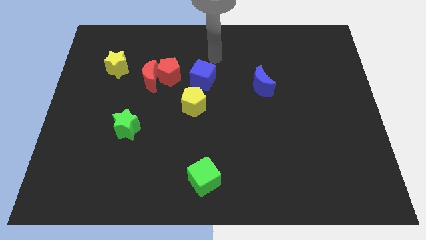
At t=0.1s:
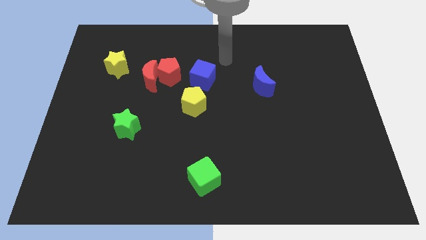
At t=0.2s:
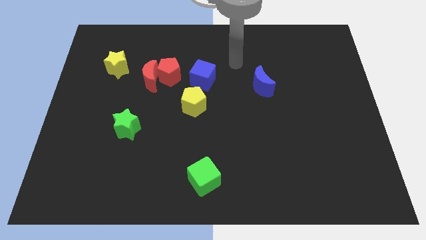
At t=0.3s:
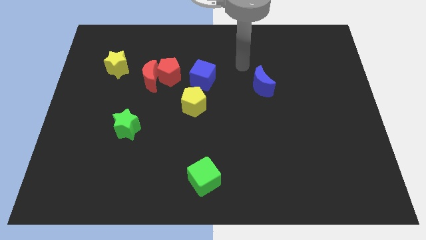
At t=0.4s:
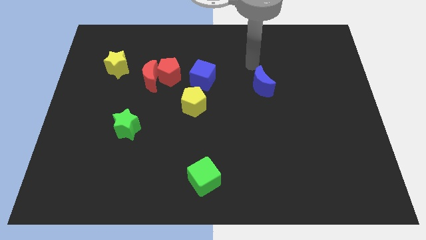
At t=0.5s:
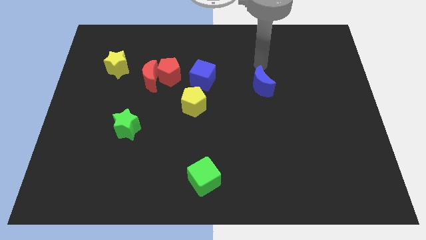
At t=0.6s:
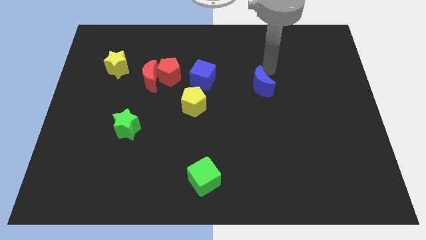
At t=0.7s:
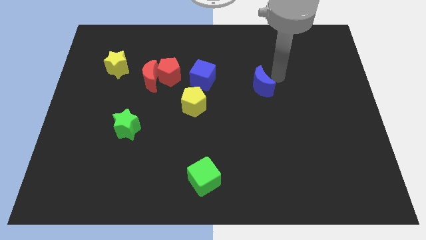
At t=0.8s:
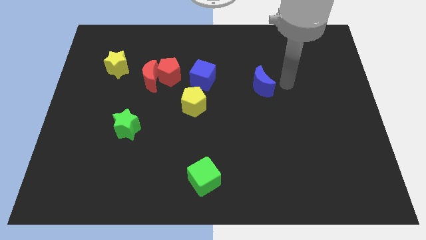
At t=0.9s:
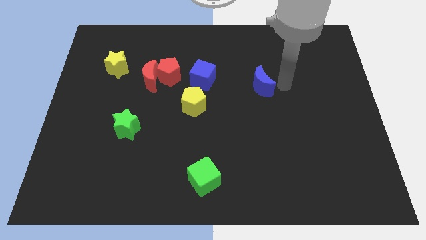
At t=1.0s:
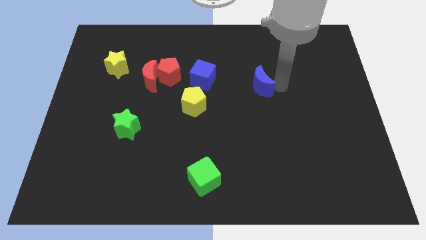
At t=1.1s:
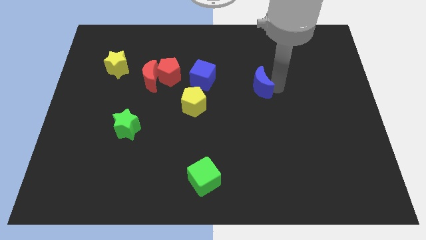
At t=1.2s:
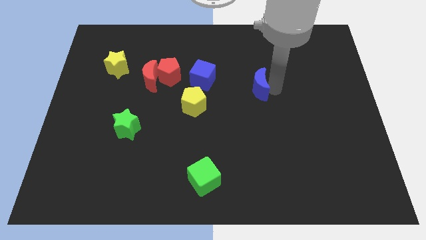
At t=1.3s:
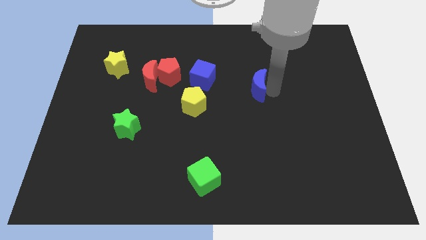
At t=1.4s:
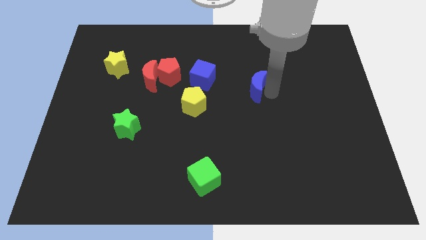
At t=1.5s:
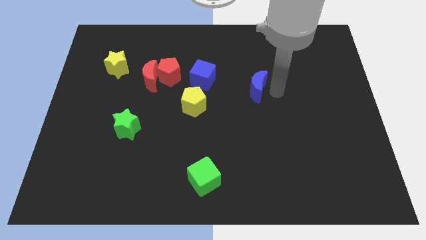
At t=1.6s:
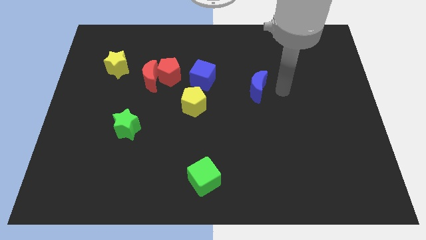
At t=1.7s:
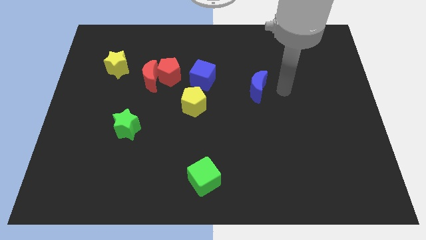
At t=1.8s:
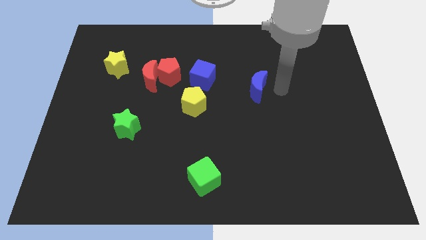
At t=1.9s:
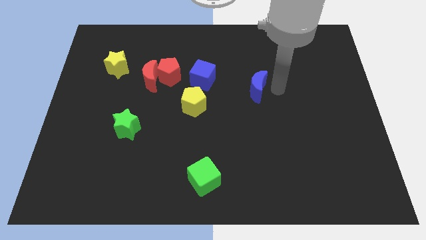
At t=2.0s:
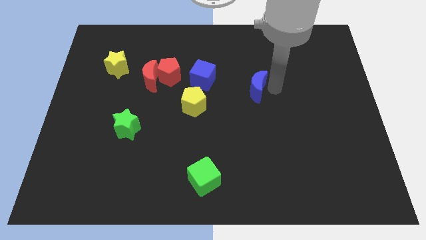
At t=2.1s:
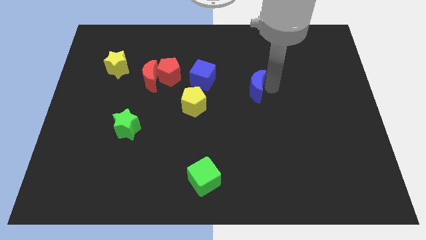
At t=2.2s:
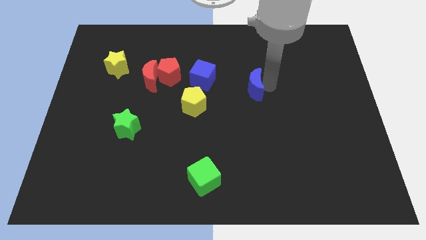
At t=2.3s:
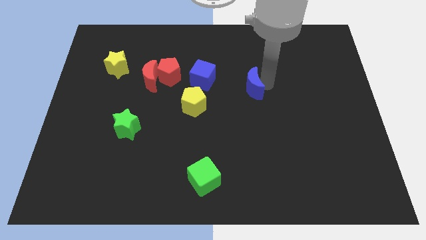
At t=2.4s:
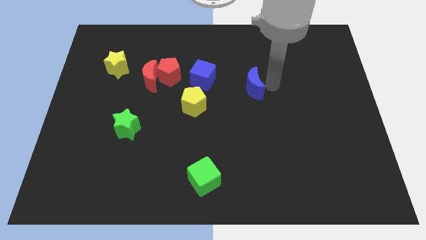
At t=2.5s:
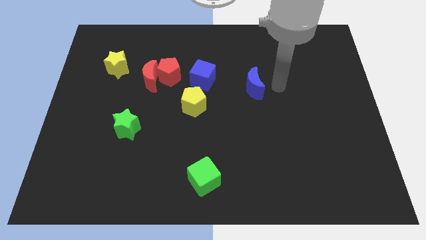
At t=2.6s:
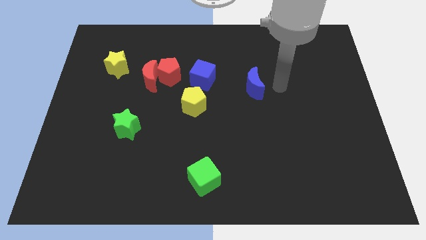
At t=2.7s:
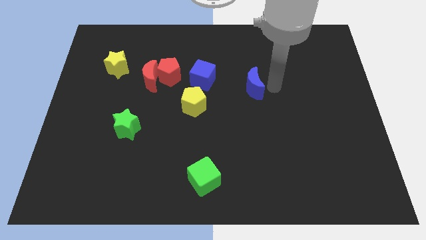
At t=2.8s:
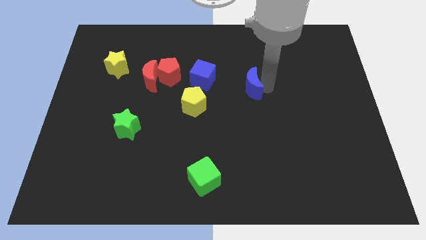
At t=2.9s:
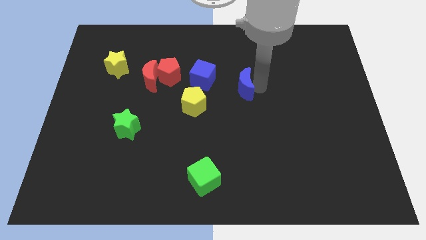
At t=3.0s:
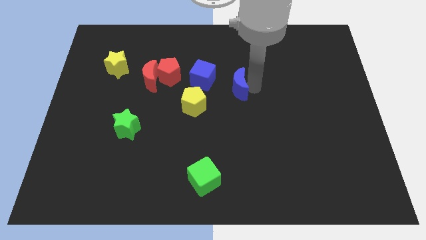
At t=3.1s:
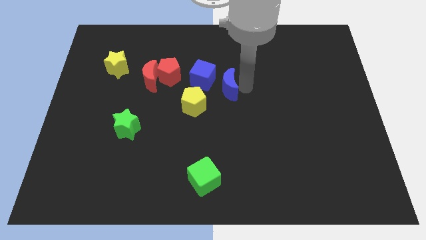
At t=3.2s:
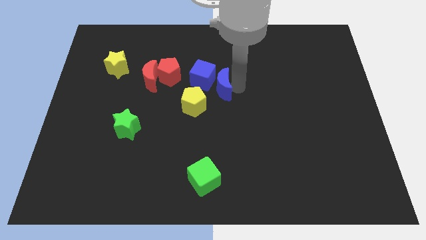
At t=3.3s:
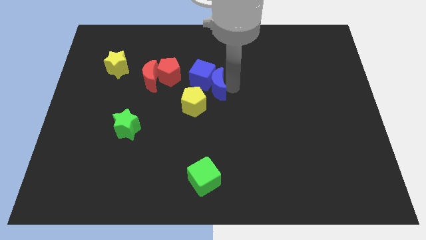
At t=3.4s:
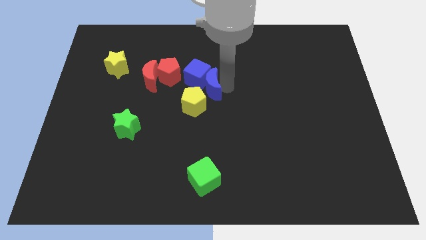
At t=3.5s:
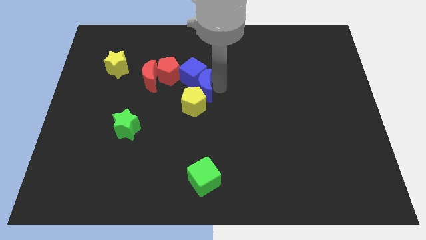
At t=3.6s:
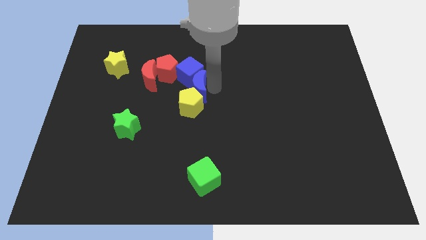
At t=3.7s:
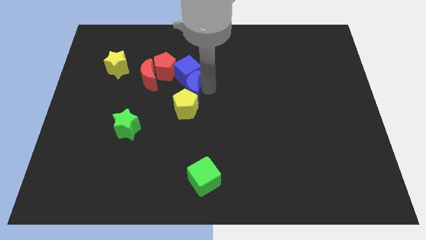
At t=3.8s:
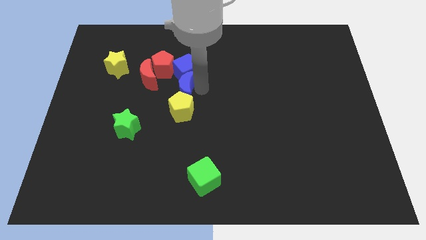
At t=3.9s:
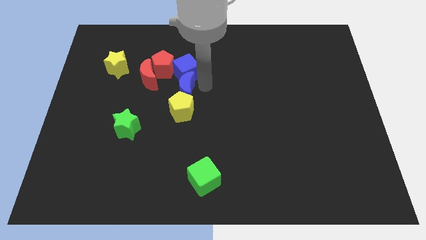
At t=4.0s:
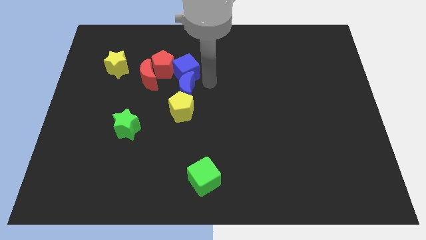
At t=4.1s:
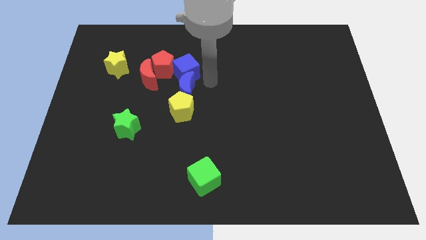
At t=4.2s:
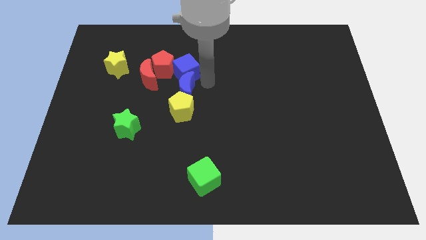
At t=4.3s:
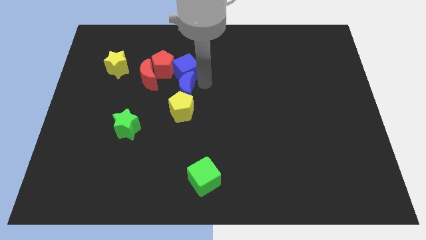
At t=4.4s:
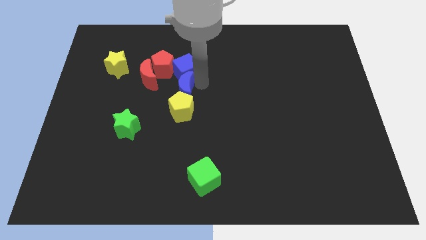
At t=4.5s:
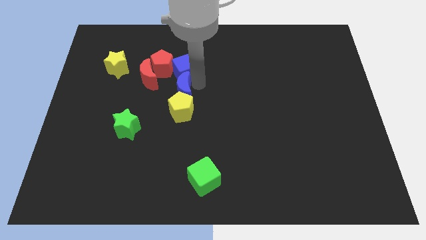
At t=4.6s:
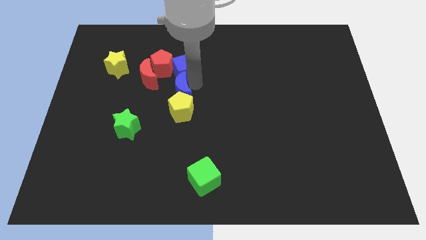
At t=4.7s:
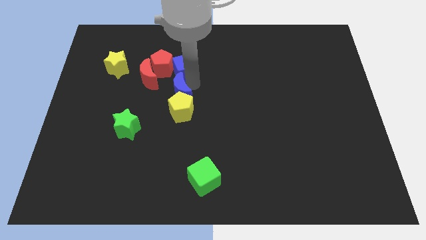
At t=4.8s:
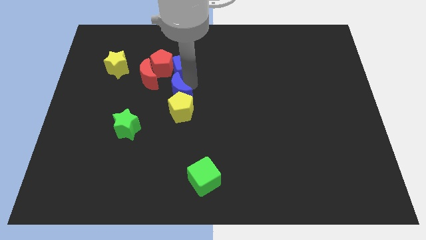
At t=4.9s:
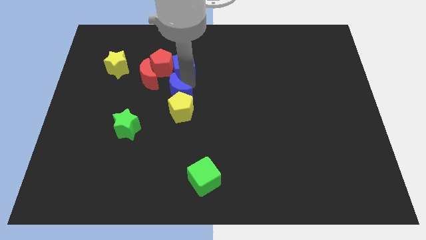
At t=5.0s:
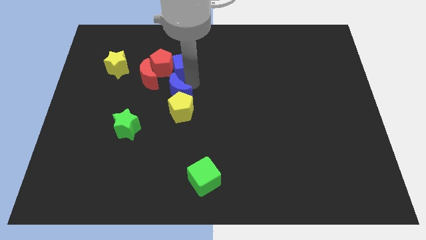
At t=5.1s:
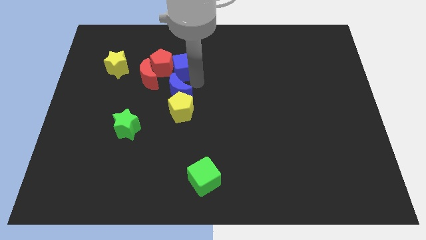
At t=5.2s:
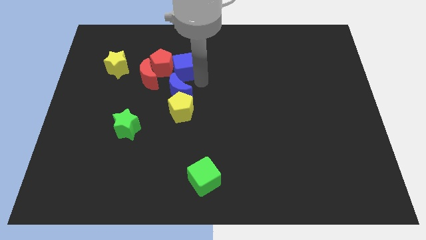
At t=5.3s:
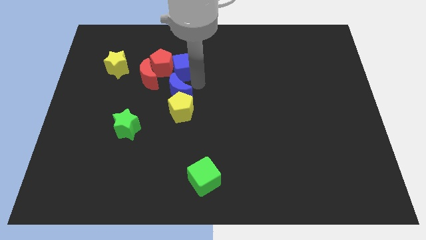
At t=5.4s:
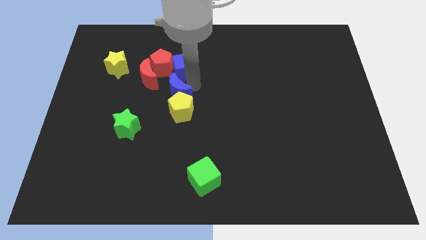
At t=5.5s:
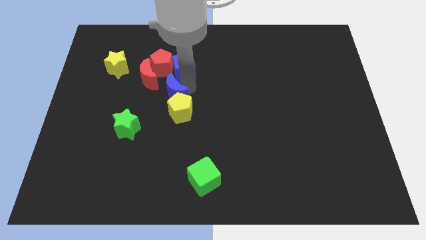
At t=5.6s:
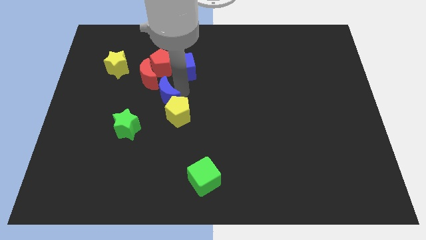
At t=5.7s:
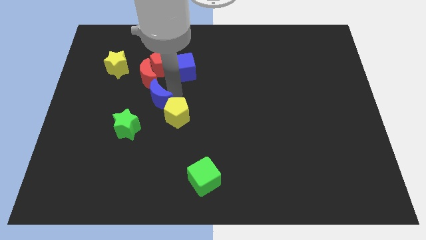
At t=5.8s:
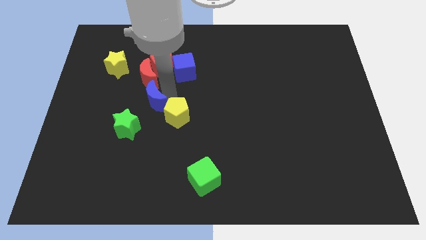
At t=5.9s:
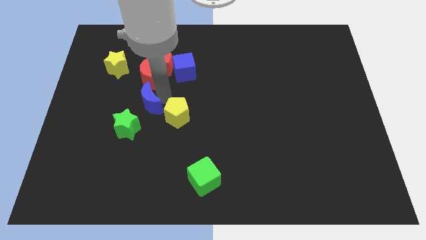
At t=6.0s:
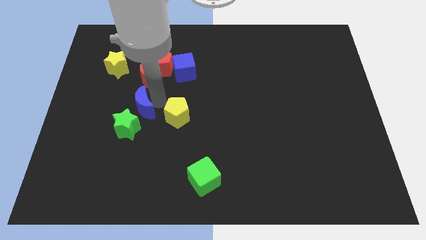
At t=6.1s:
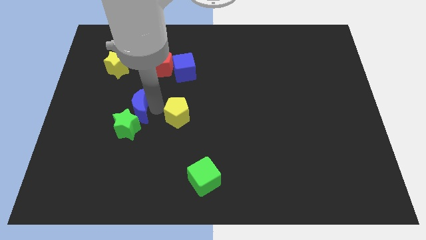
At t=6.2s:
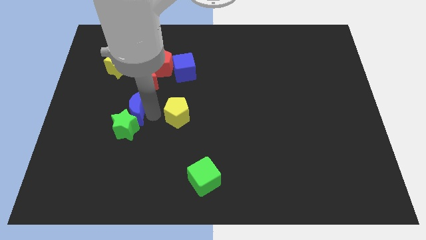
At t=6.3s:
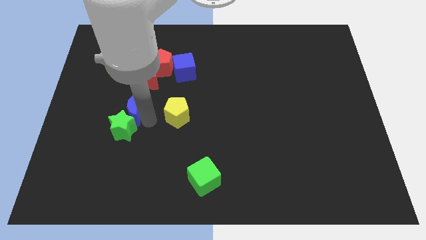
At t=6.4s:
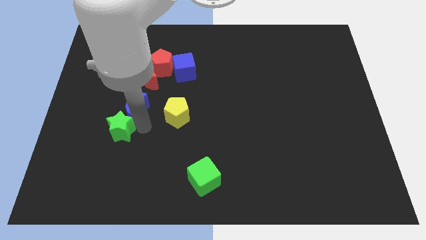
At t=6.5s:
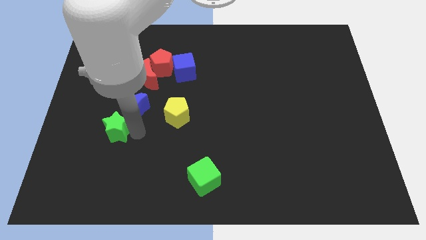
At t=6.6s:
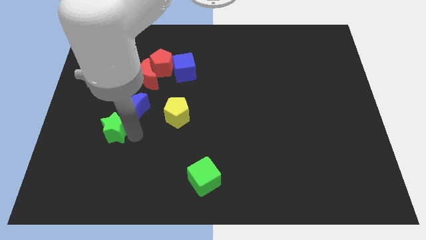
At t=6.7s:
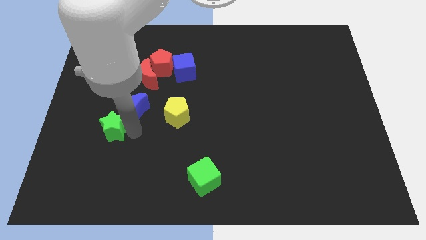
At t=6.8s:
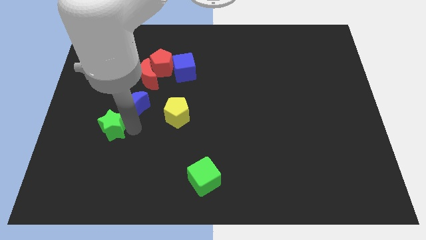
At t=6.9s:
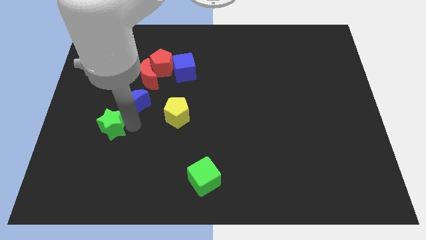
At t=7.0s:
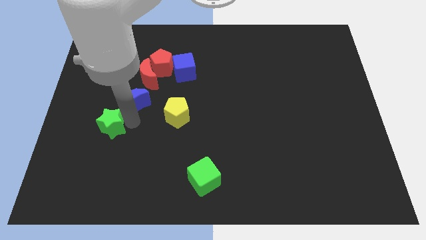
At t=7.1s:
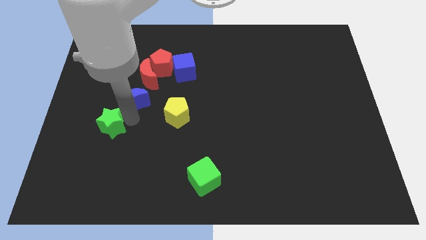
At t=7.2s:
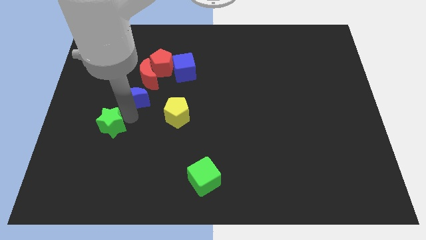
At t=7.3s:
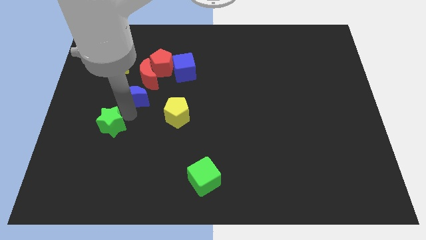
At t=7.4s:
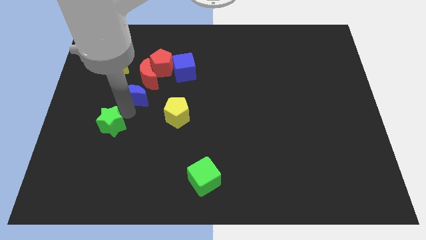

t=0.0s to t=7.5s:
push the blue moon to the bottom left of the red pentagon

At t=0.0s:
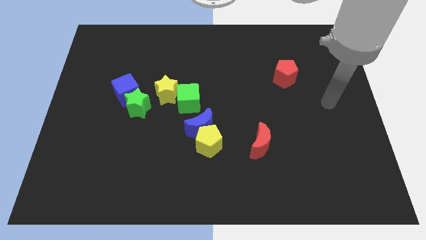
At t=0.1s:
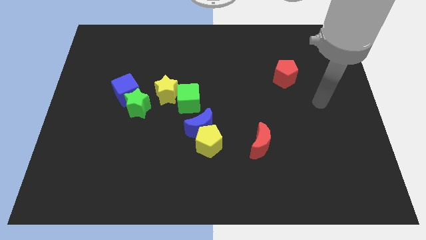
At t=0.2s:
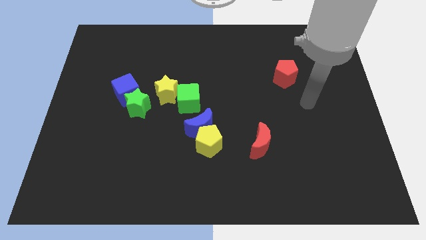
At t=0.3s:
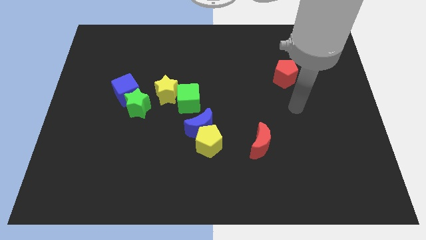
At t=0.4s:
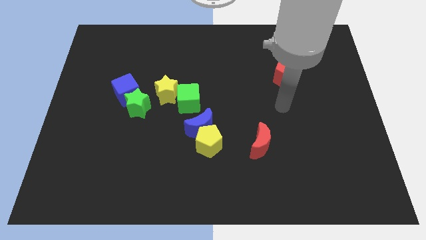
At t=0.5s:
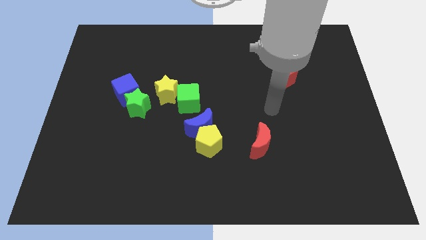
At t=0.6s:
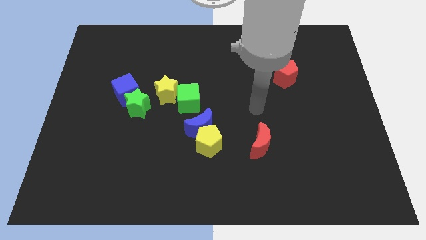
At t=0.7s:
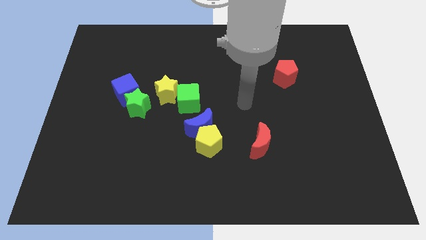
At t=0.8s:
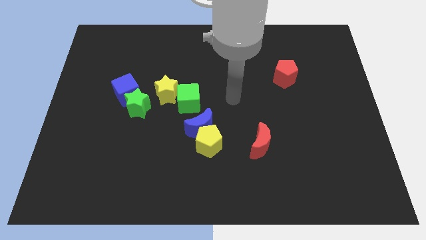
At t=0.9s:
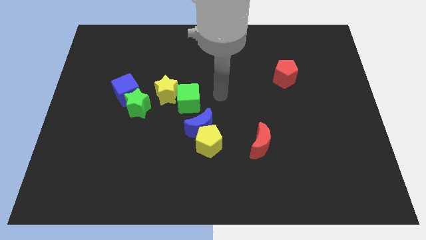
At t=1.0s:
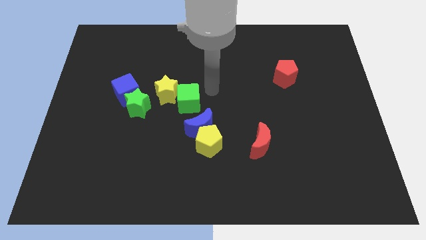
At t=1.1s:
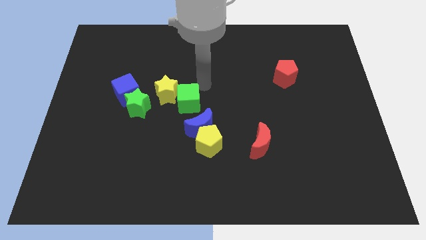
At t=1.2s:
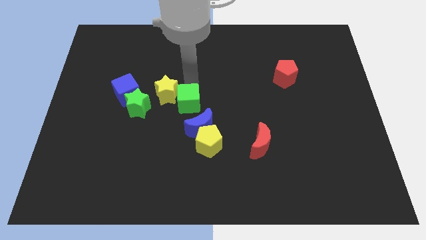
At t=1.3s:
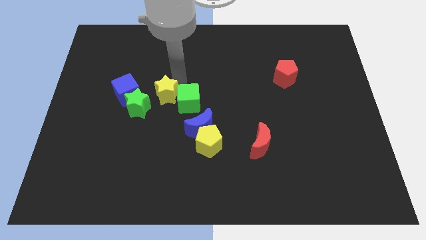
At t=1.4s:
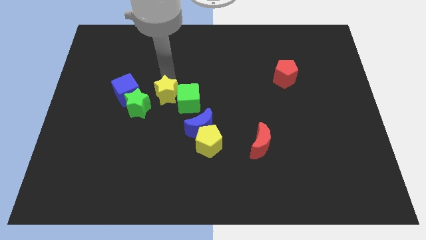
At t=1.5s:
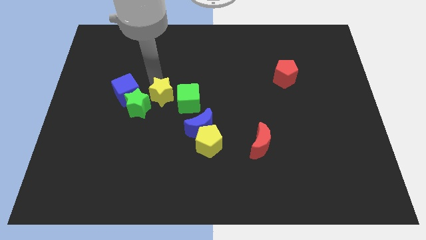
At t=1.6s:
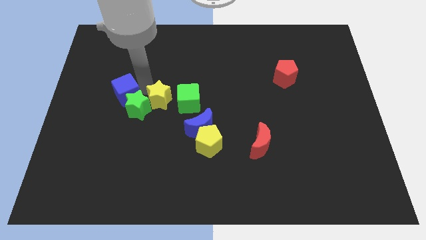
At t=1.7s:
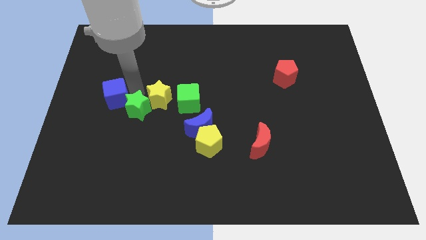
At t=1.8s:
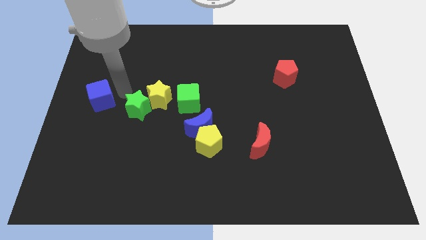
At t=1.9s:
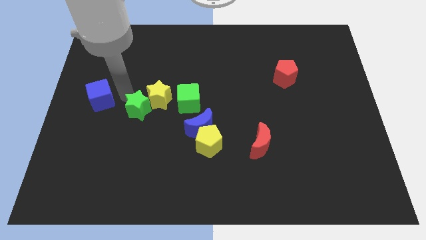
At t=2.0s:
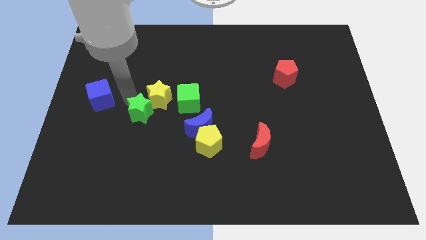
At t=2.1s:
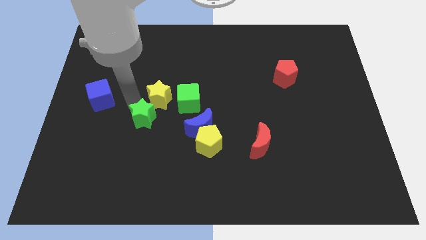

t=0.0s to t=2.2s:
move the green star to the left of the blue moon
